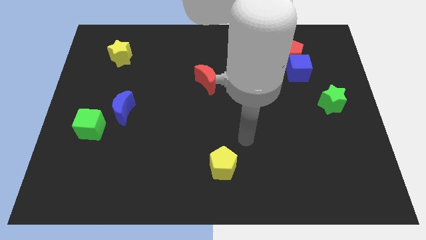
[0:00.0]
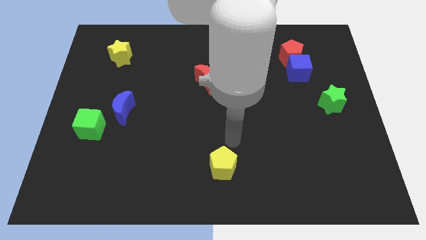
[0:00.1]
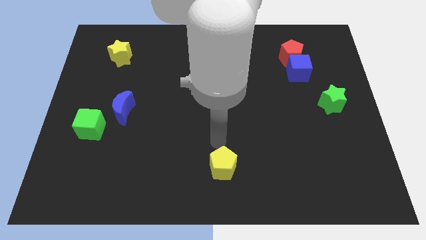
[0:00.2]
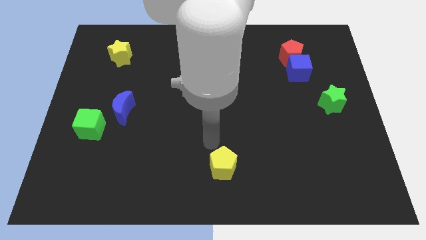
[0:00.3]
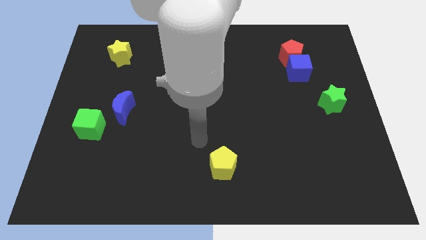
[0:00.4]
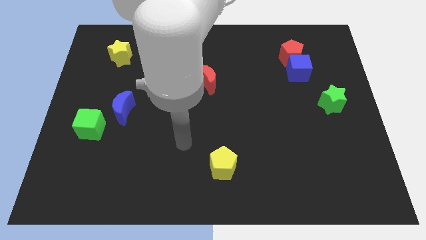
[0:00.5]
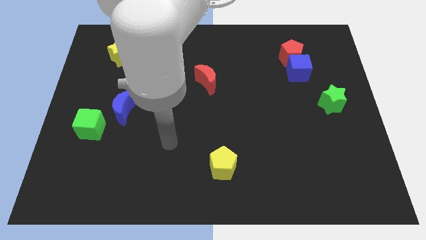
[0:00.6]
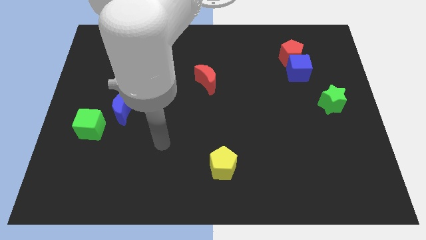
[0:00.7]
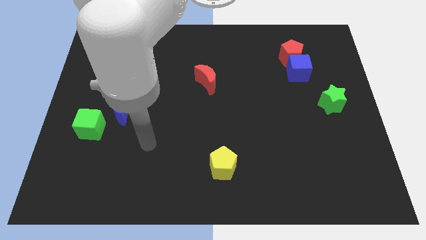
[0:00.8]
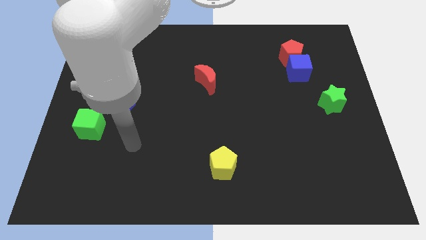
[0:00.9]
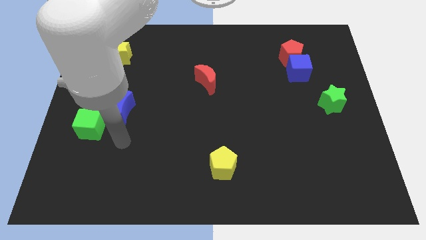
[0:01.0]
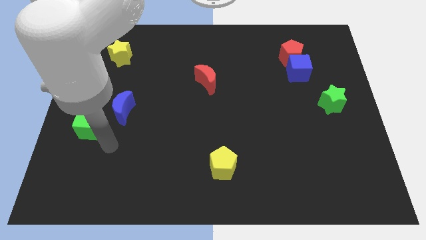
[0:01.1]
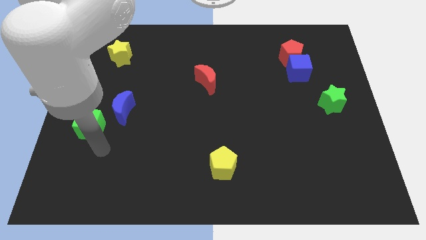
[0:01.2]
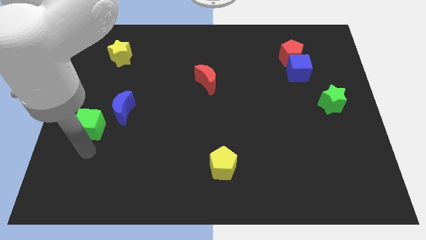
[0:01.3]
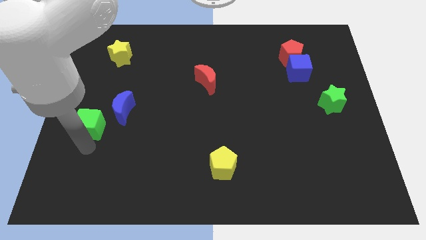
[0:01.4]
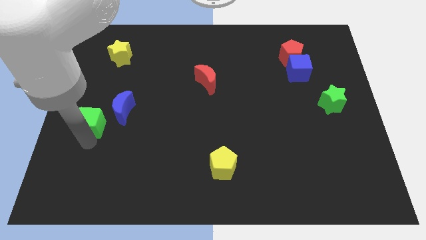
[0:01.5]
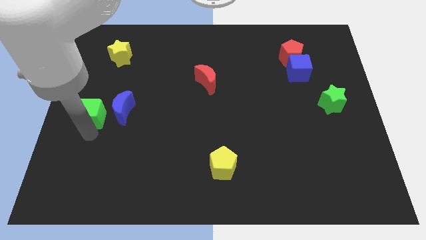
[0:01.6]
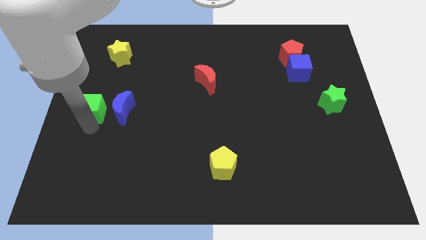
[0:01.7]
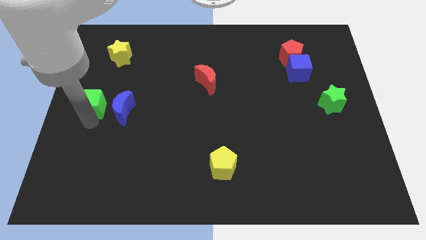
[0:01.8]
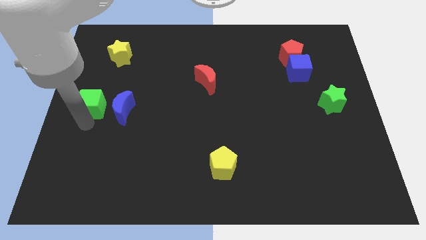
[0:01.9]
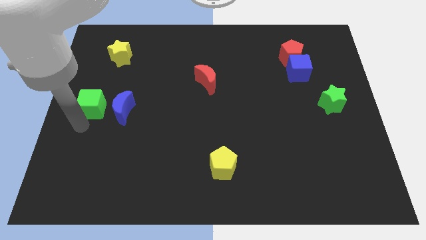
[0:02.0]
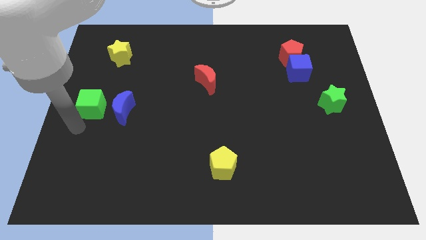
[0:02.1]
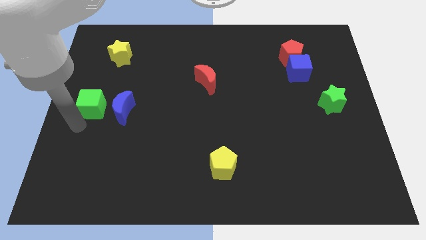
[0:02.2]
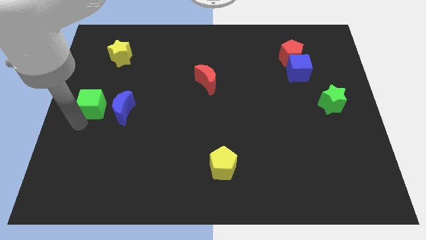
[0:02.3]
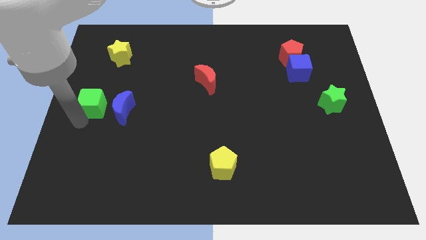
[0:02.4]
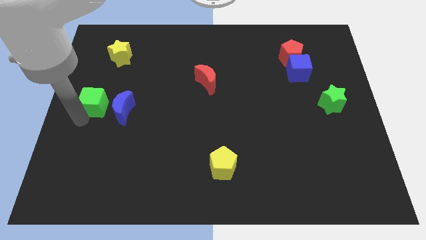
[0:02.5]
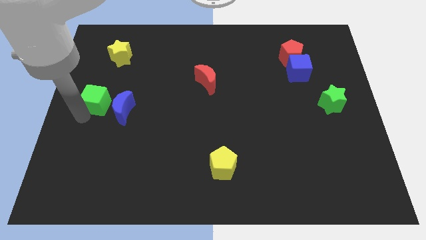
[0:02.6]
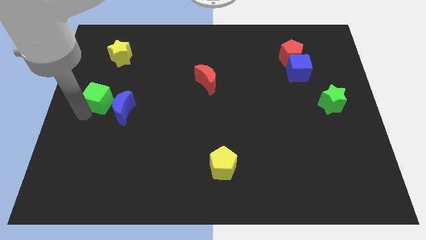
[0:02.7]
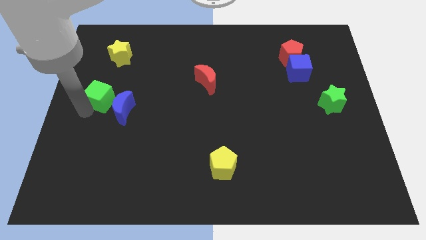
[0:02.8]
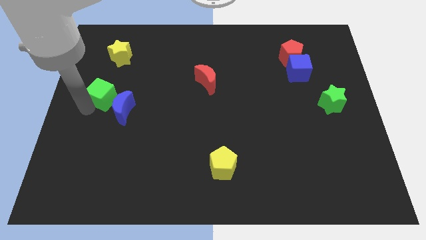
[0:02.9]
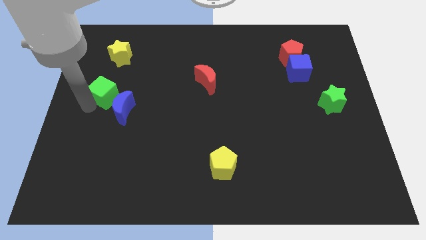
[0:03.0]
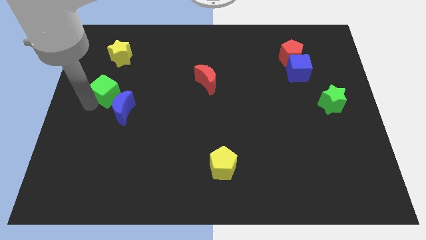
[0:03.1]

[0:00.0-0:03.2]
push the green cube a little up and right diagonally

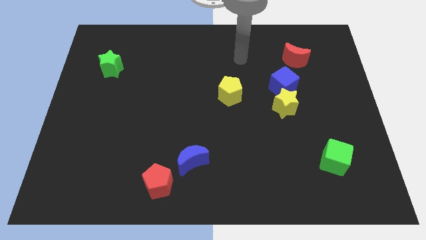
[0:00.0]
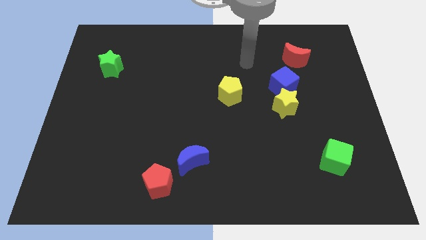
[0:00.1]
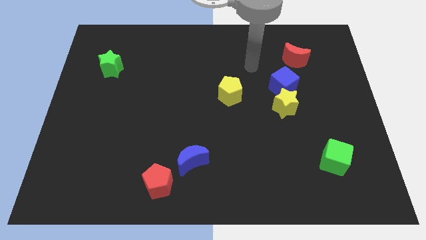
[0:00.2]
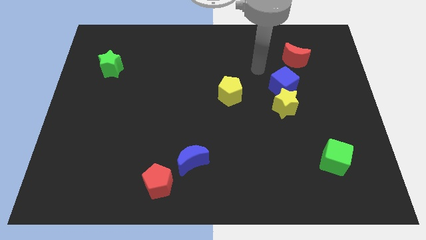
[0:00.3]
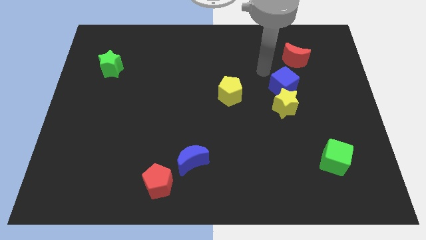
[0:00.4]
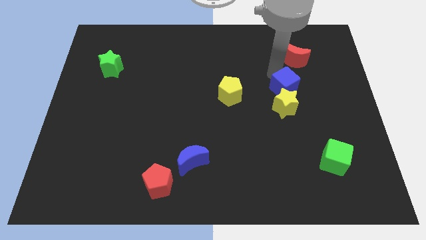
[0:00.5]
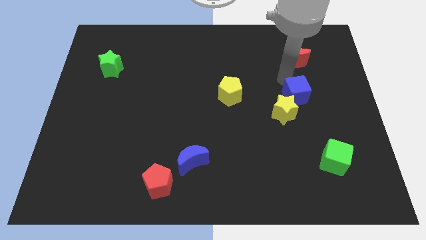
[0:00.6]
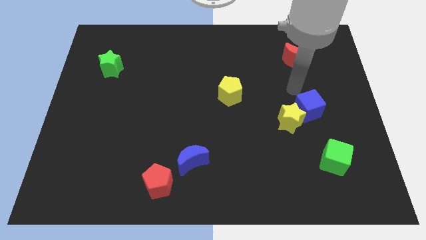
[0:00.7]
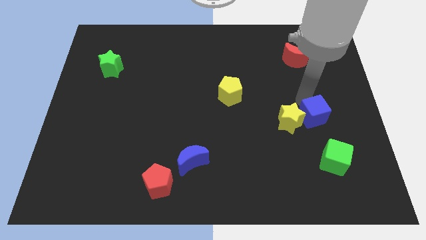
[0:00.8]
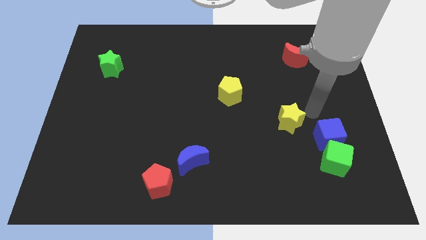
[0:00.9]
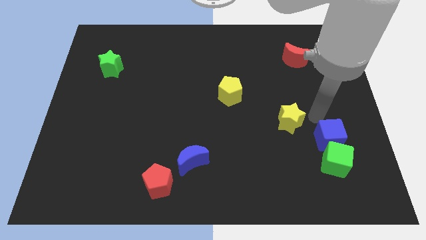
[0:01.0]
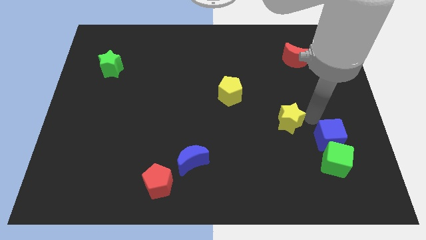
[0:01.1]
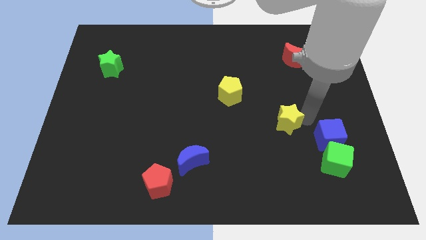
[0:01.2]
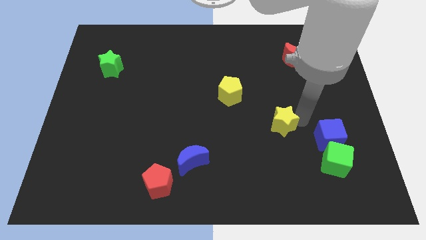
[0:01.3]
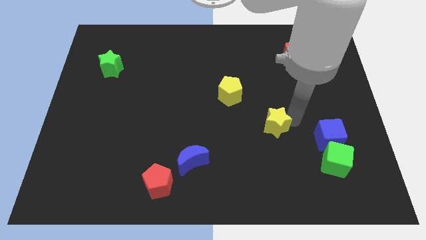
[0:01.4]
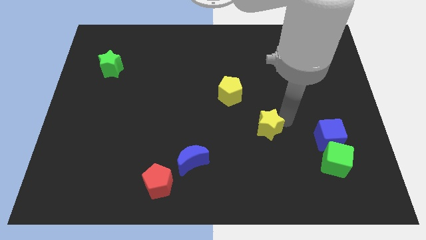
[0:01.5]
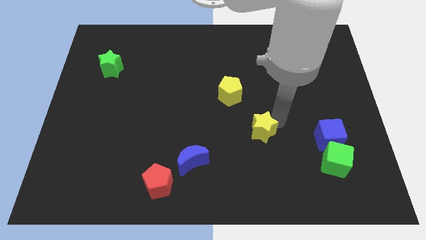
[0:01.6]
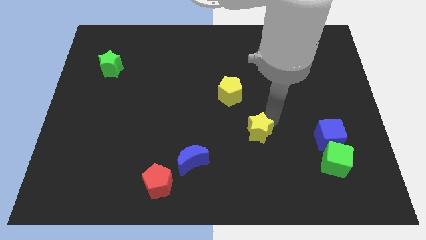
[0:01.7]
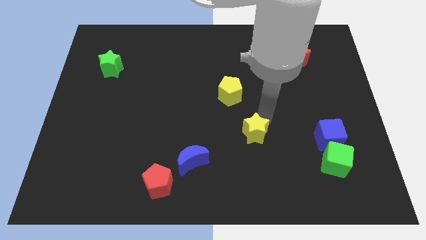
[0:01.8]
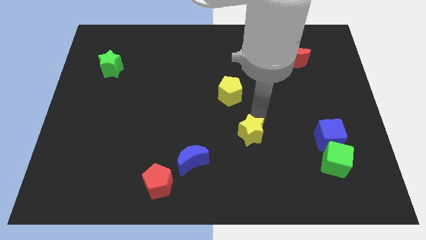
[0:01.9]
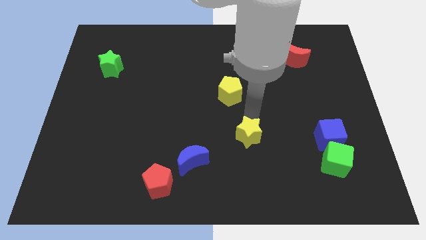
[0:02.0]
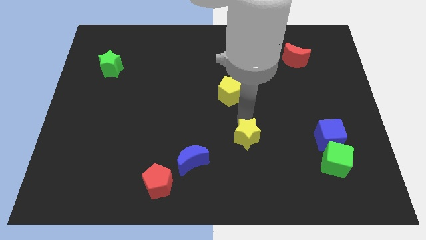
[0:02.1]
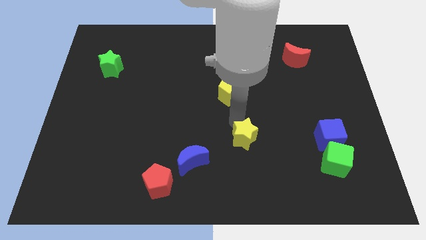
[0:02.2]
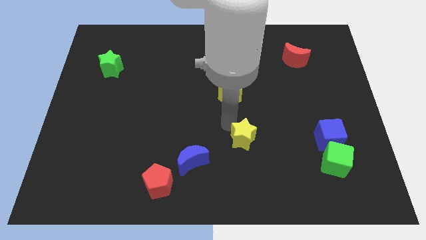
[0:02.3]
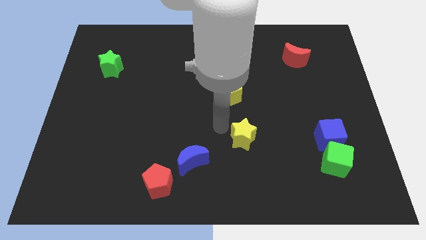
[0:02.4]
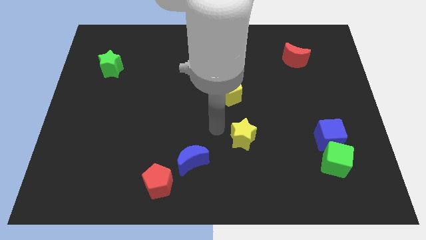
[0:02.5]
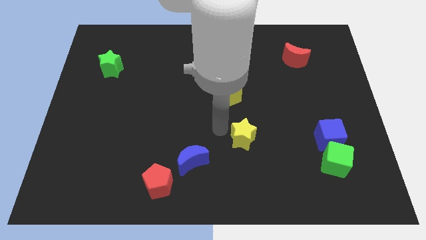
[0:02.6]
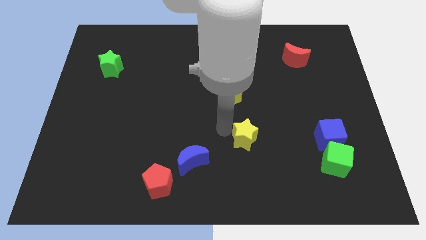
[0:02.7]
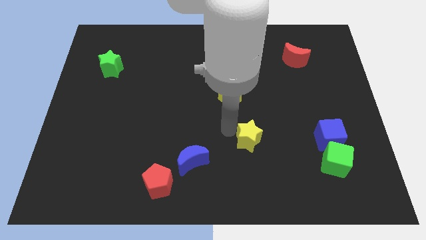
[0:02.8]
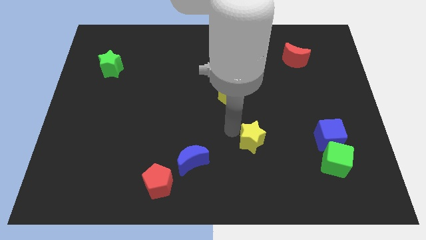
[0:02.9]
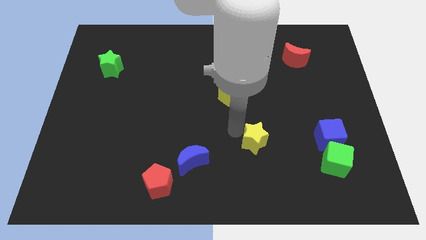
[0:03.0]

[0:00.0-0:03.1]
slide the yellow star a little bit down

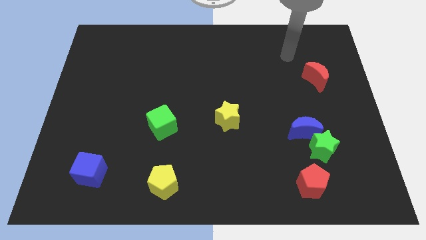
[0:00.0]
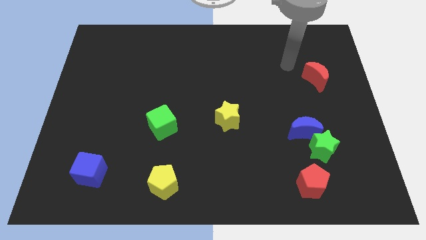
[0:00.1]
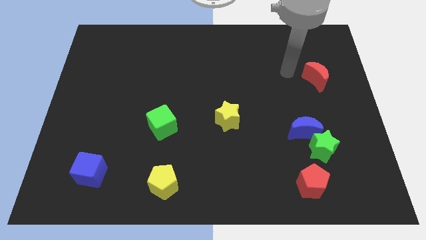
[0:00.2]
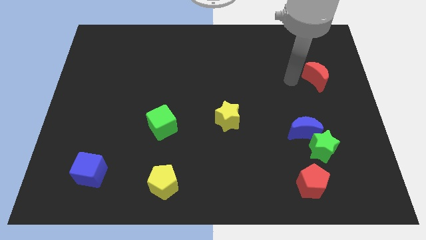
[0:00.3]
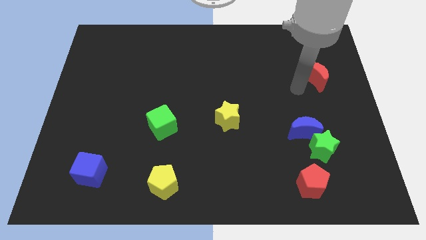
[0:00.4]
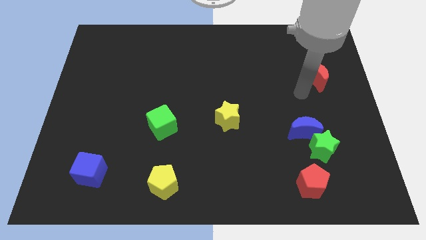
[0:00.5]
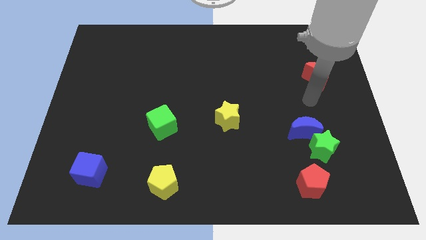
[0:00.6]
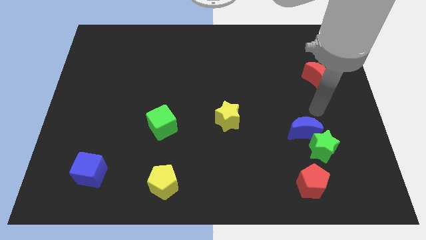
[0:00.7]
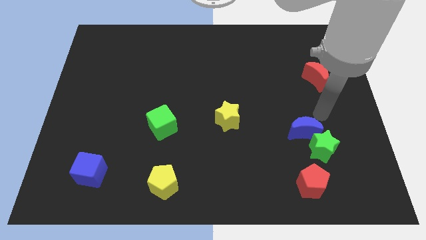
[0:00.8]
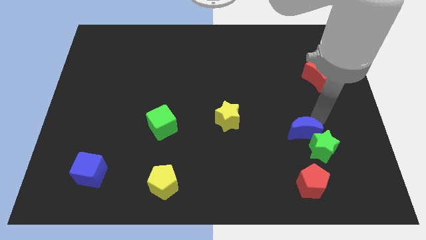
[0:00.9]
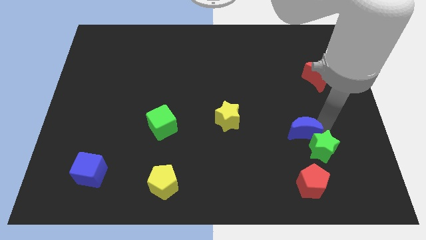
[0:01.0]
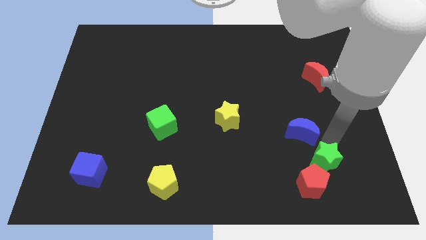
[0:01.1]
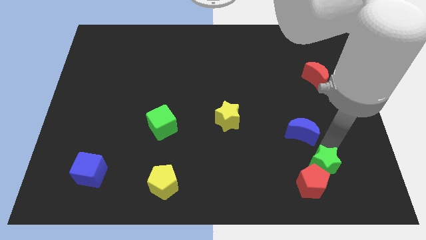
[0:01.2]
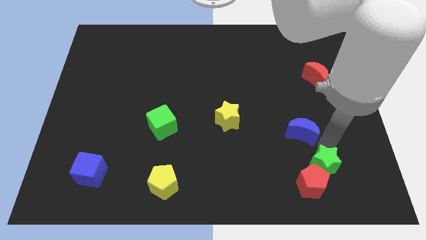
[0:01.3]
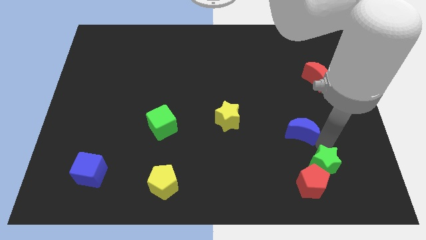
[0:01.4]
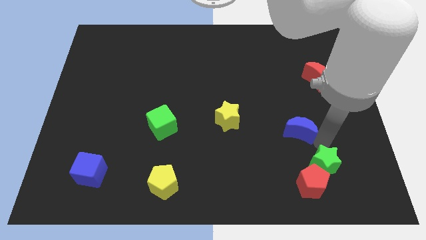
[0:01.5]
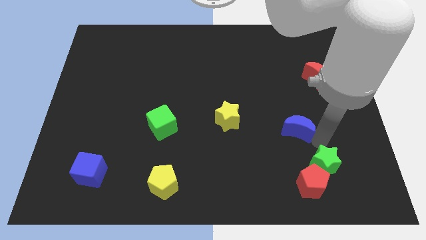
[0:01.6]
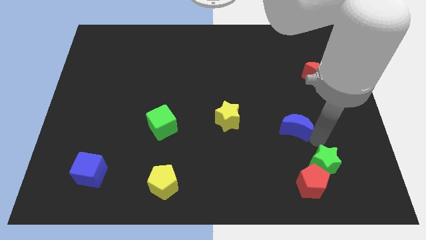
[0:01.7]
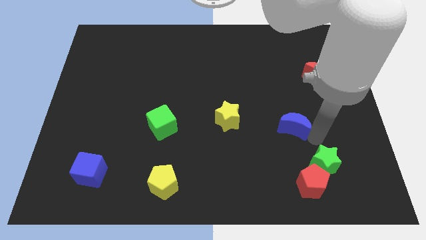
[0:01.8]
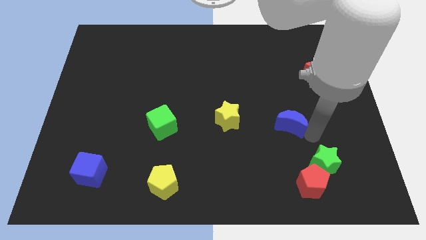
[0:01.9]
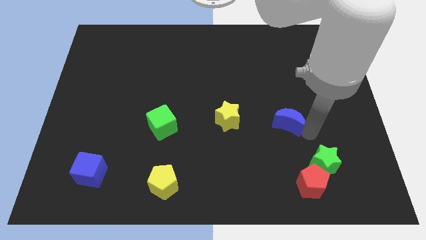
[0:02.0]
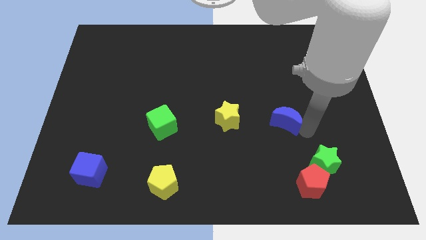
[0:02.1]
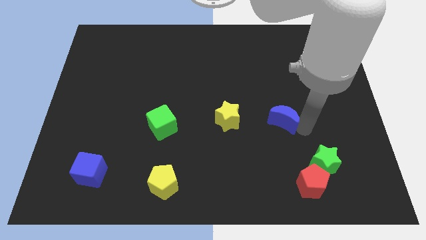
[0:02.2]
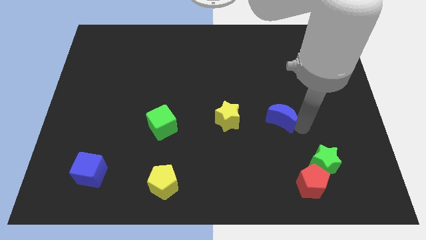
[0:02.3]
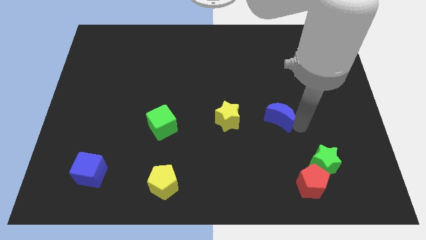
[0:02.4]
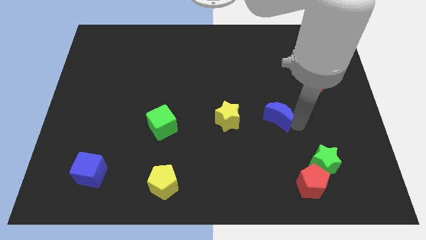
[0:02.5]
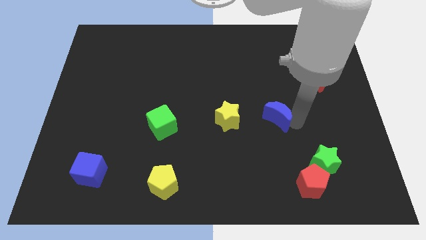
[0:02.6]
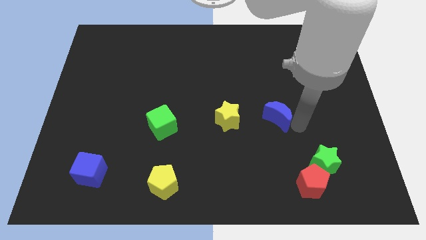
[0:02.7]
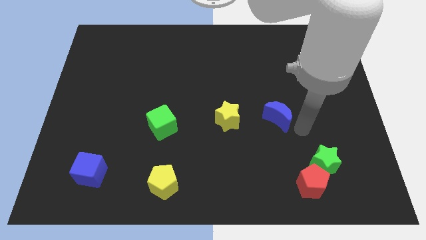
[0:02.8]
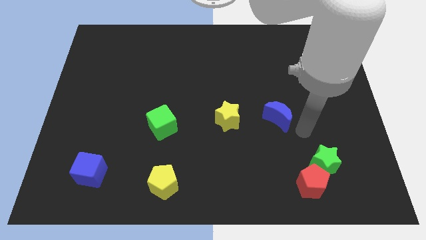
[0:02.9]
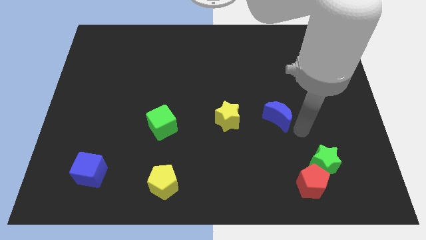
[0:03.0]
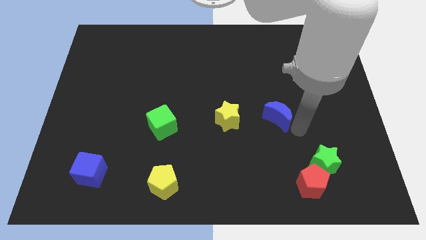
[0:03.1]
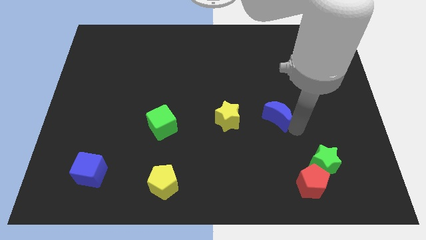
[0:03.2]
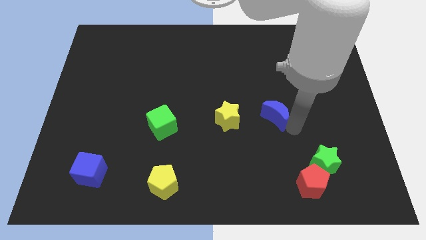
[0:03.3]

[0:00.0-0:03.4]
slide the blue moon diagonally up and to the left a little bit
